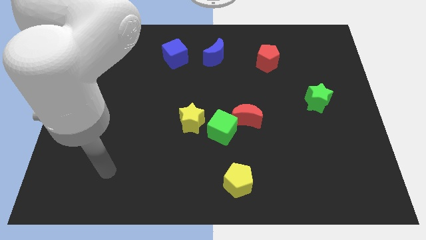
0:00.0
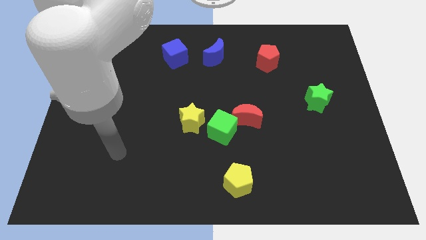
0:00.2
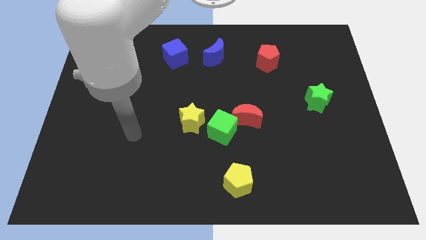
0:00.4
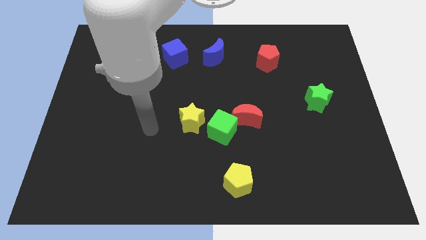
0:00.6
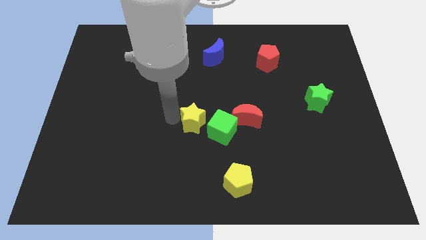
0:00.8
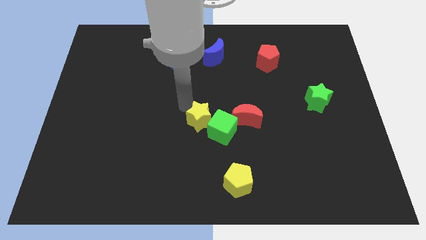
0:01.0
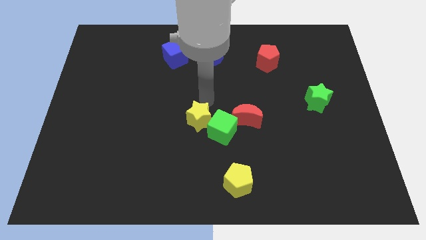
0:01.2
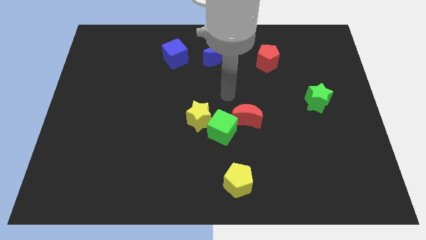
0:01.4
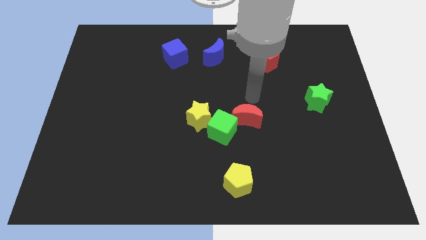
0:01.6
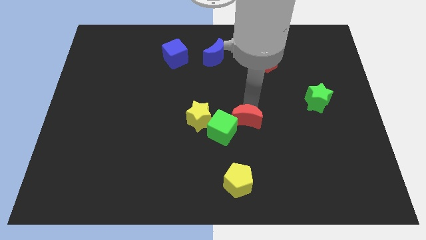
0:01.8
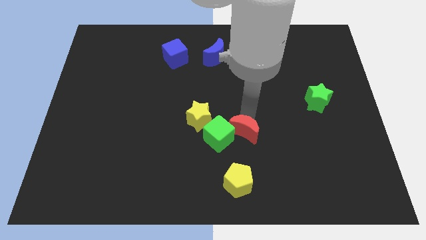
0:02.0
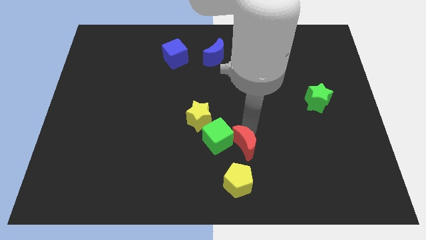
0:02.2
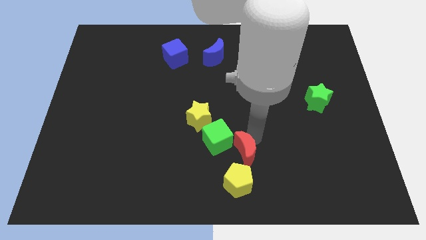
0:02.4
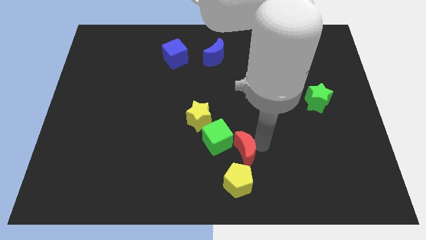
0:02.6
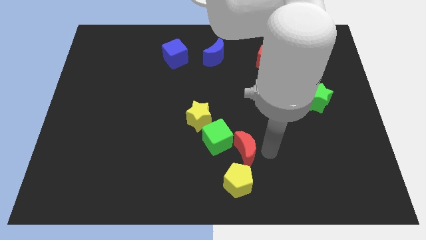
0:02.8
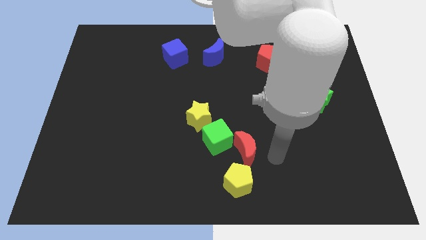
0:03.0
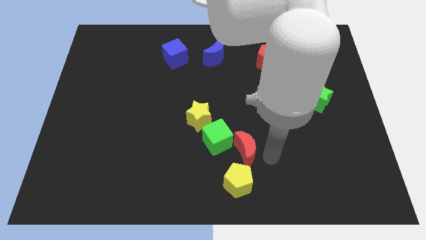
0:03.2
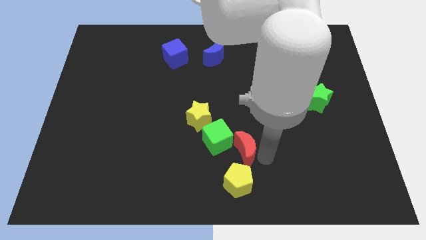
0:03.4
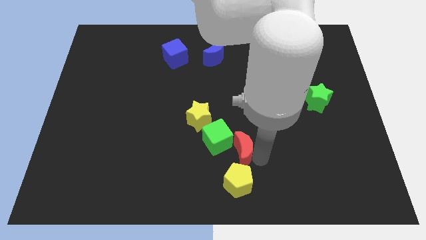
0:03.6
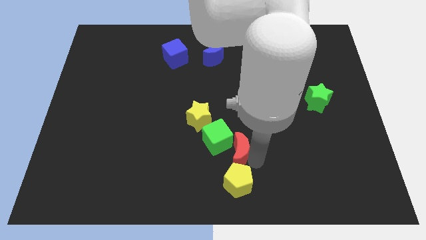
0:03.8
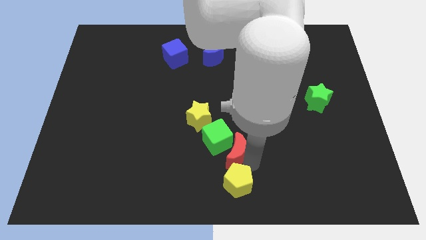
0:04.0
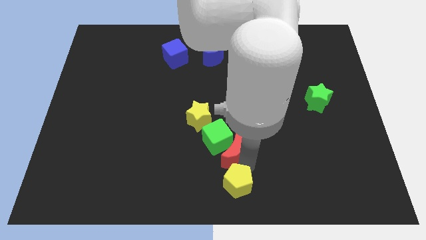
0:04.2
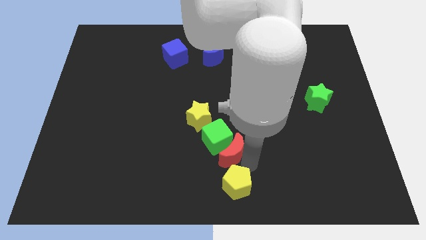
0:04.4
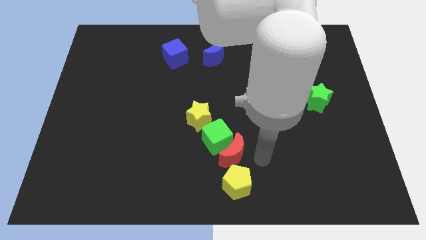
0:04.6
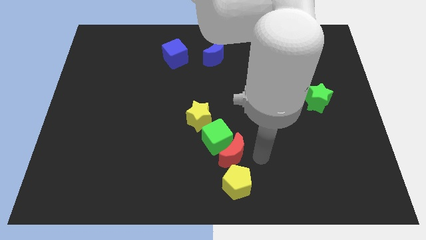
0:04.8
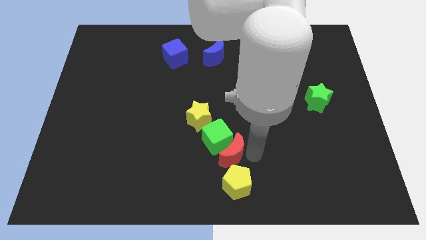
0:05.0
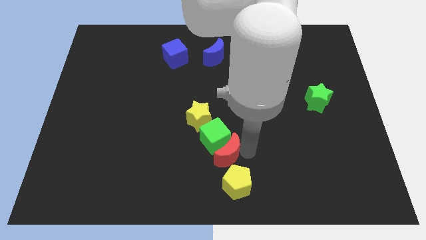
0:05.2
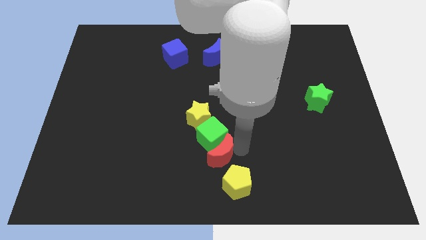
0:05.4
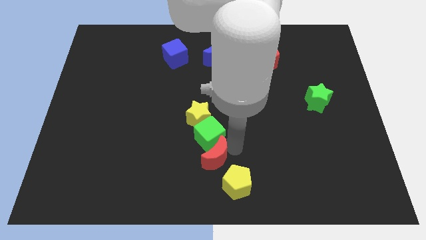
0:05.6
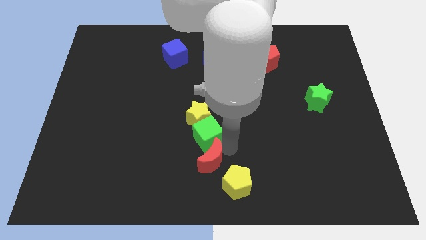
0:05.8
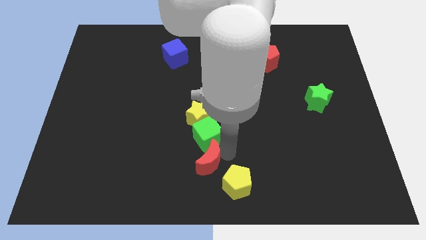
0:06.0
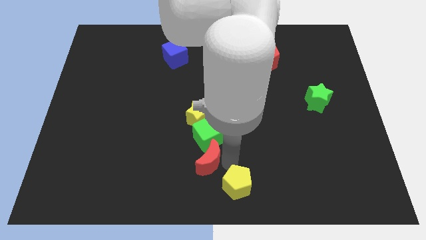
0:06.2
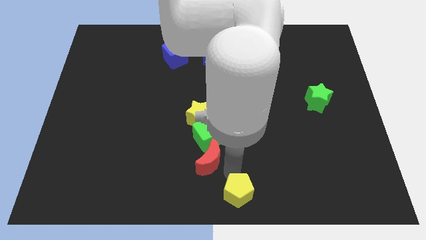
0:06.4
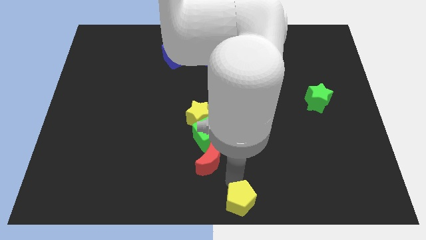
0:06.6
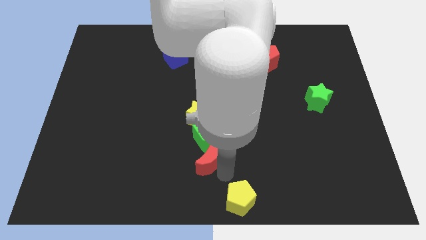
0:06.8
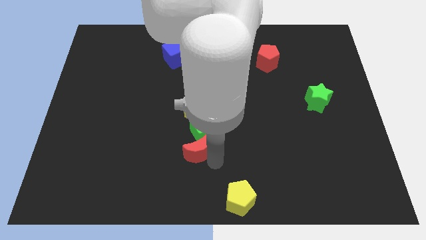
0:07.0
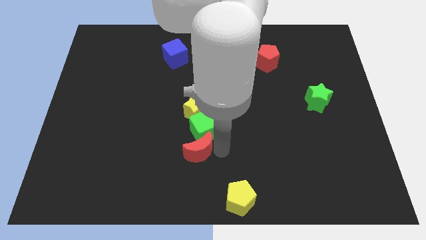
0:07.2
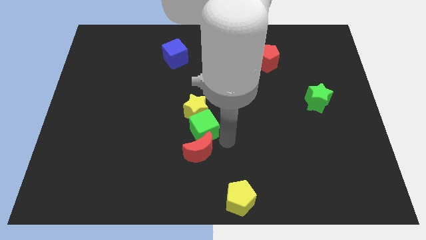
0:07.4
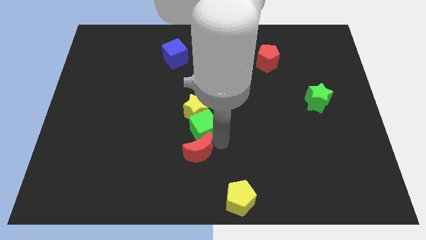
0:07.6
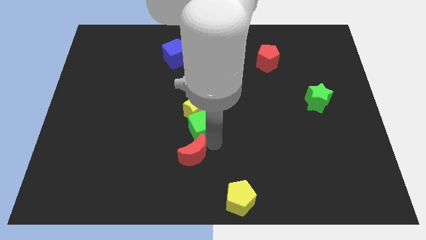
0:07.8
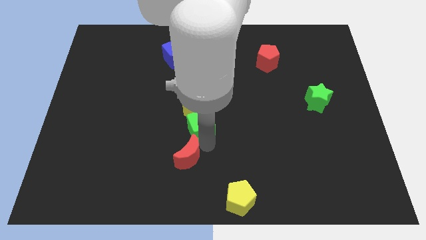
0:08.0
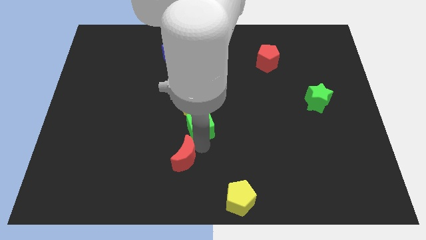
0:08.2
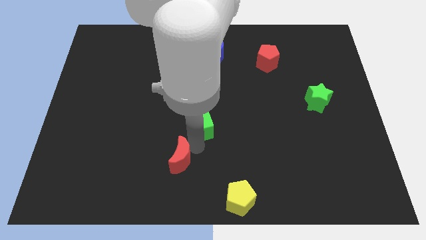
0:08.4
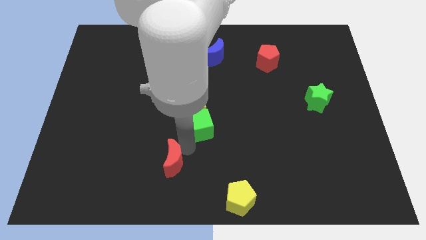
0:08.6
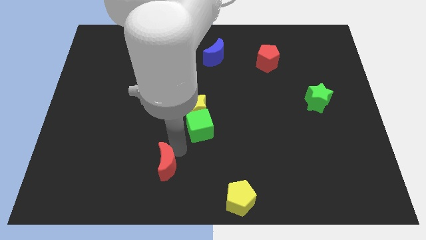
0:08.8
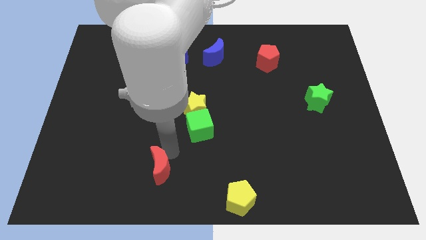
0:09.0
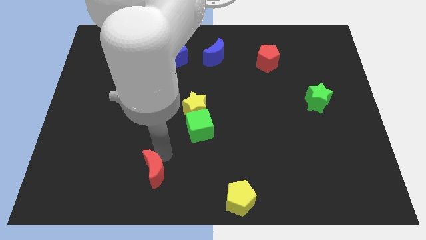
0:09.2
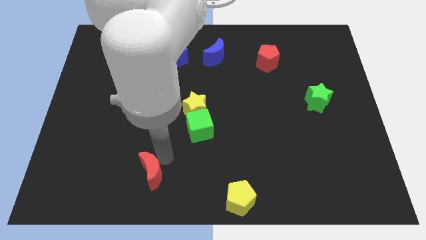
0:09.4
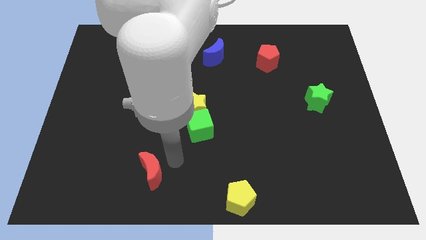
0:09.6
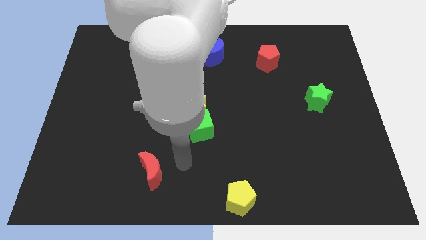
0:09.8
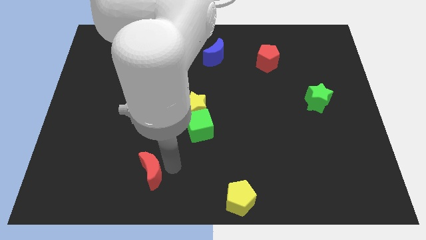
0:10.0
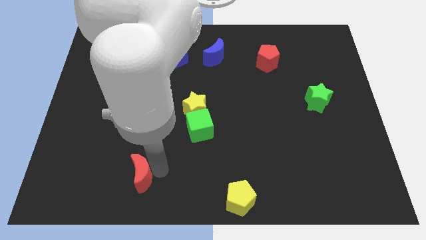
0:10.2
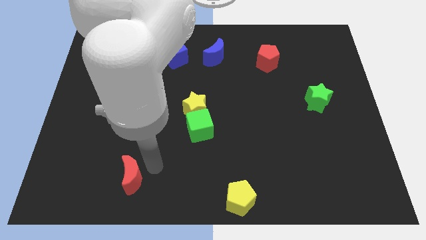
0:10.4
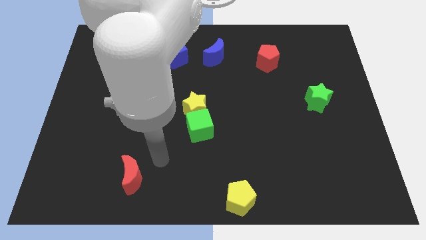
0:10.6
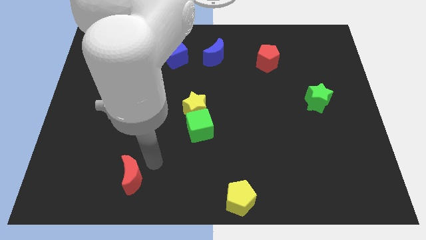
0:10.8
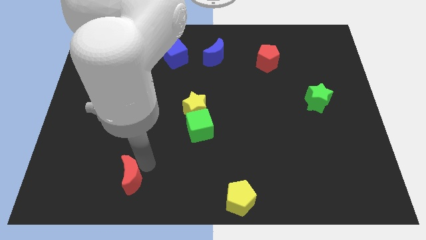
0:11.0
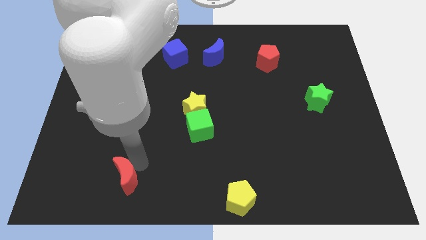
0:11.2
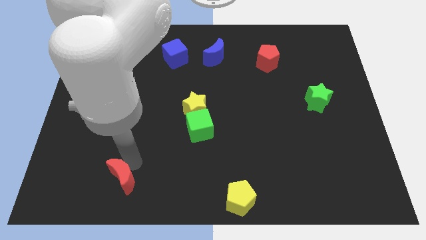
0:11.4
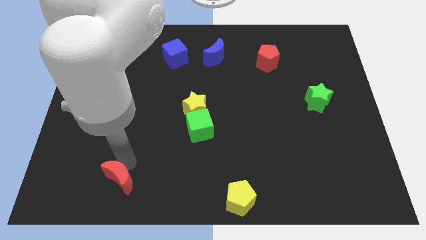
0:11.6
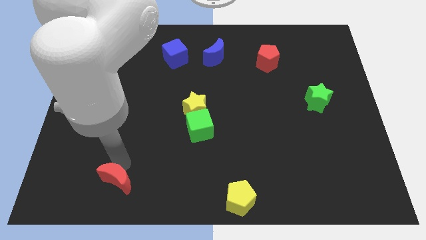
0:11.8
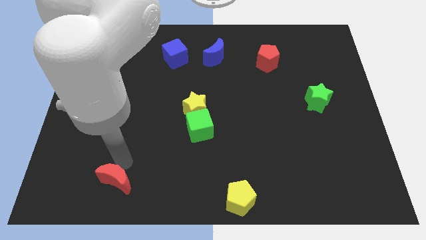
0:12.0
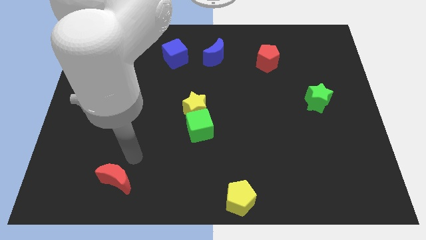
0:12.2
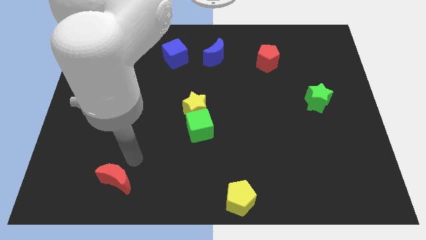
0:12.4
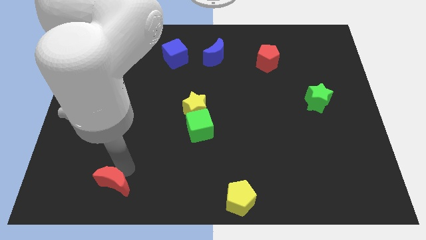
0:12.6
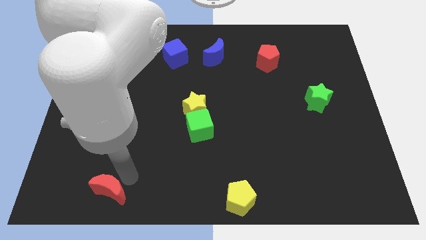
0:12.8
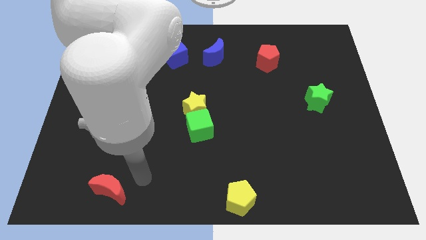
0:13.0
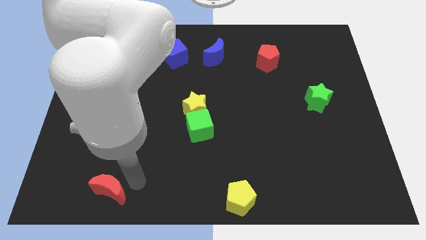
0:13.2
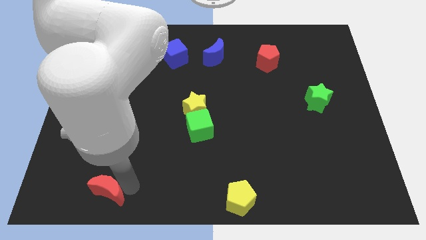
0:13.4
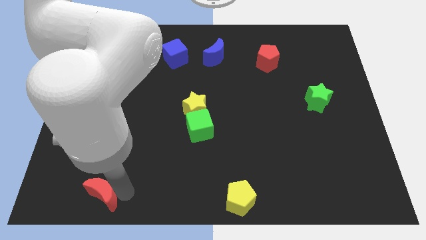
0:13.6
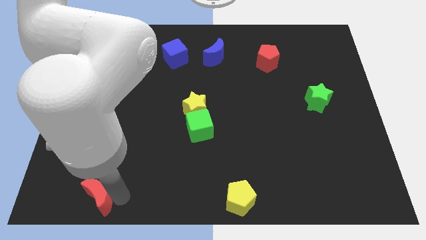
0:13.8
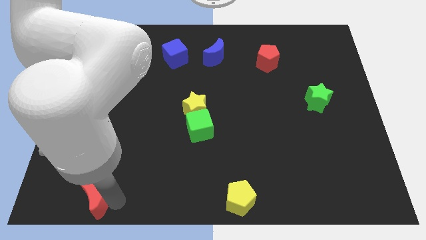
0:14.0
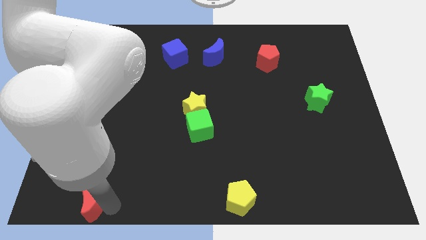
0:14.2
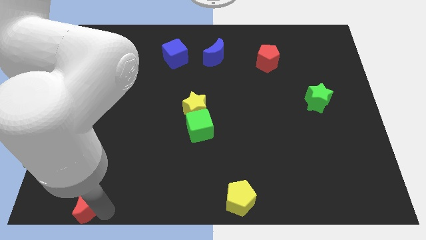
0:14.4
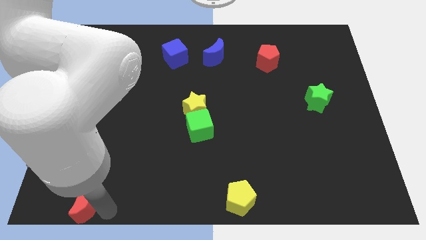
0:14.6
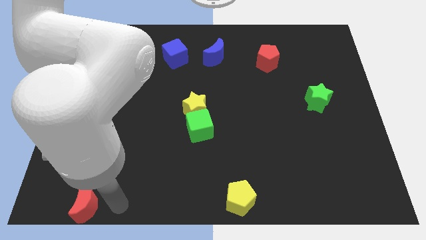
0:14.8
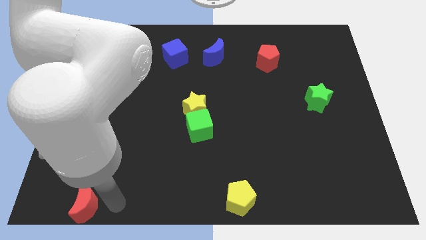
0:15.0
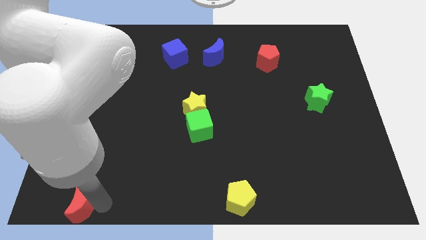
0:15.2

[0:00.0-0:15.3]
put the red moon to the bottom left of the board
